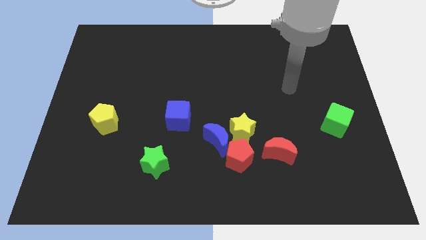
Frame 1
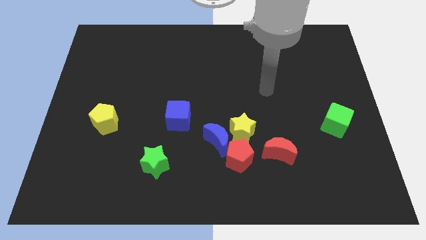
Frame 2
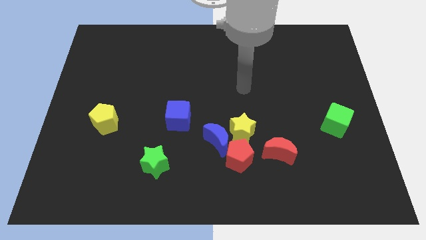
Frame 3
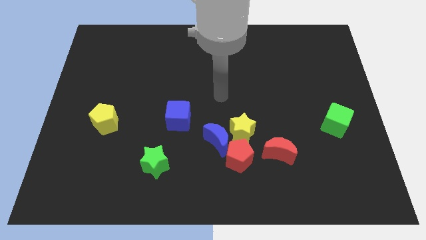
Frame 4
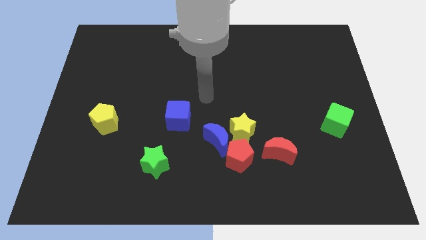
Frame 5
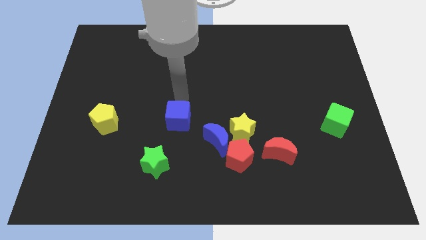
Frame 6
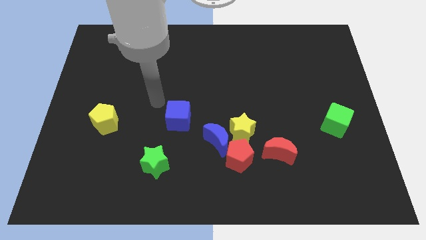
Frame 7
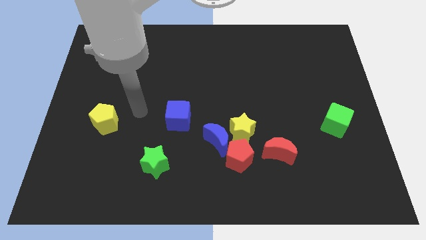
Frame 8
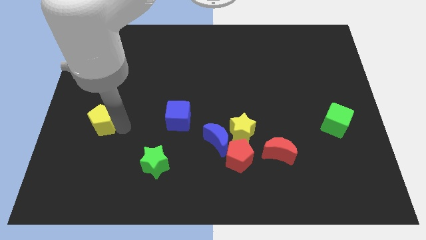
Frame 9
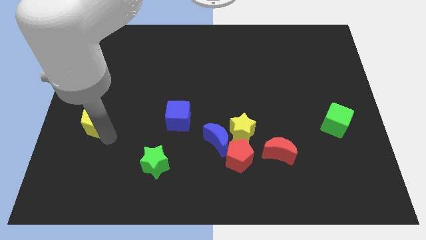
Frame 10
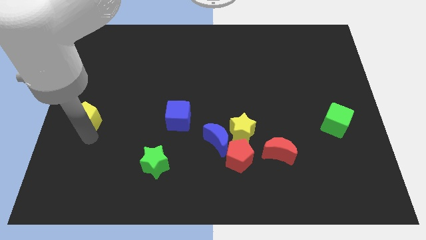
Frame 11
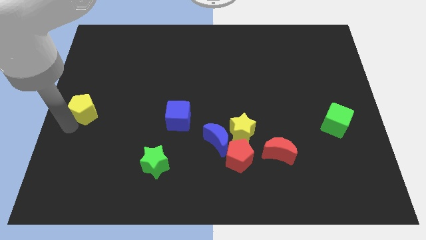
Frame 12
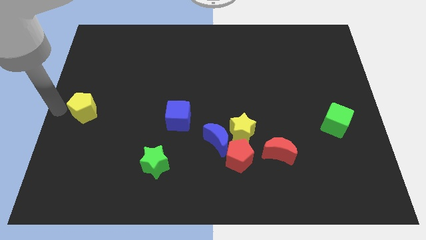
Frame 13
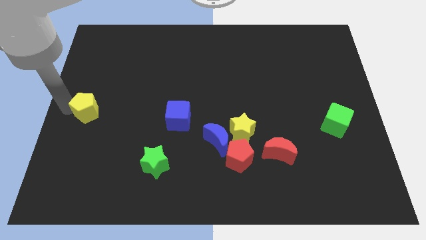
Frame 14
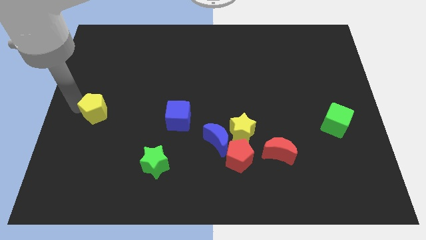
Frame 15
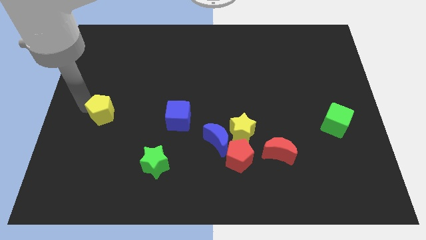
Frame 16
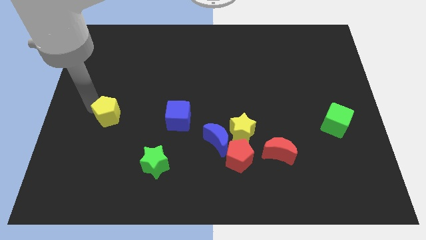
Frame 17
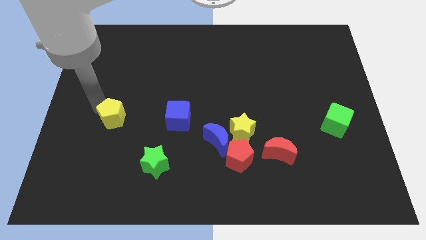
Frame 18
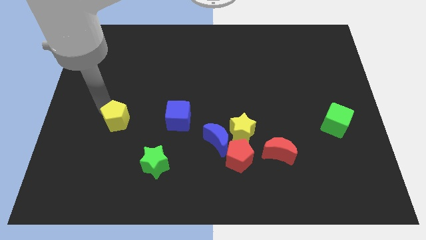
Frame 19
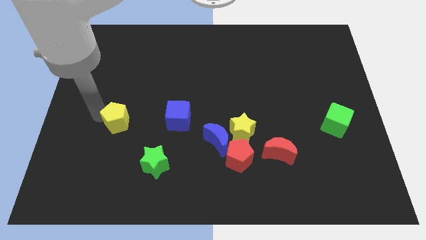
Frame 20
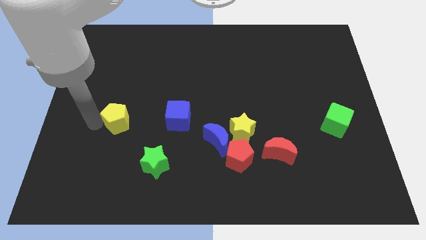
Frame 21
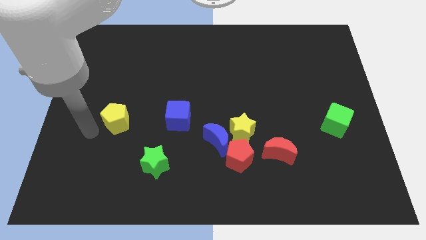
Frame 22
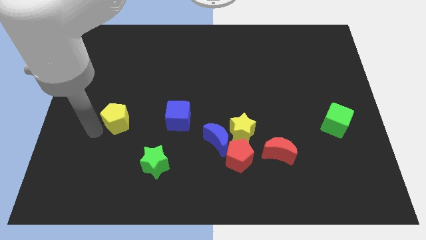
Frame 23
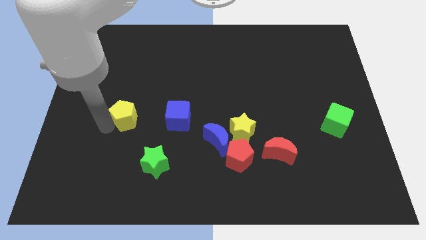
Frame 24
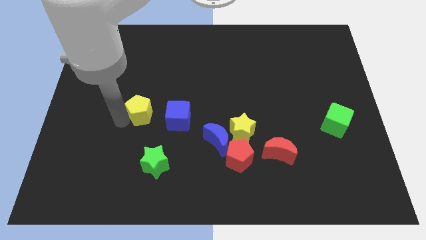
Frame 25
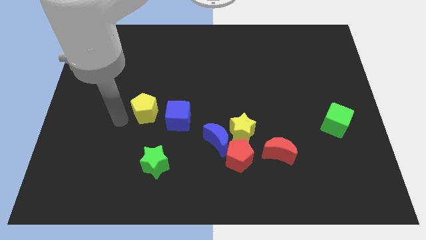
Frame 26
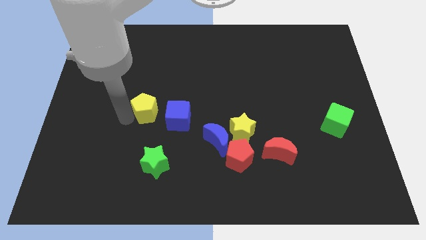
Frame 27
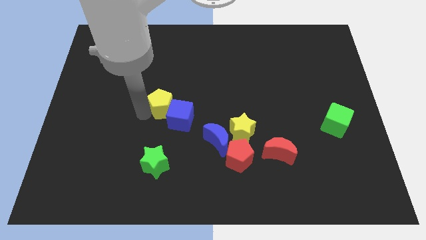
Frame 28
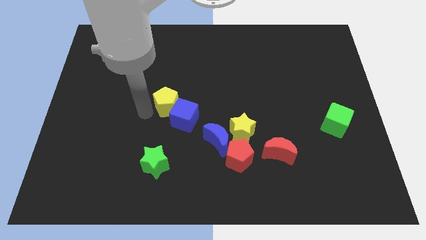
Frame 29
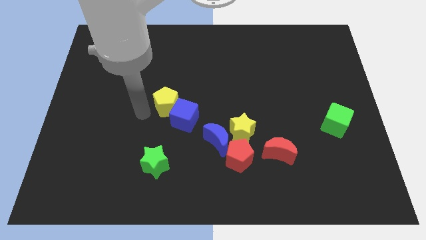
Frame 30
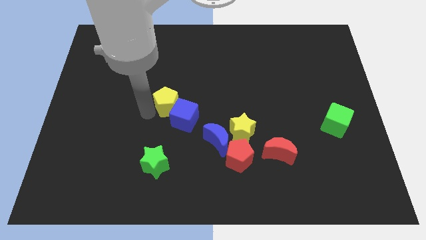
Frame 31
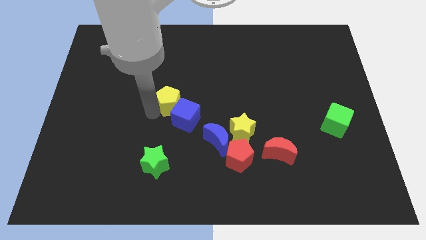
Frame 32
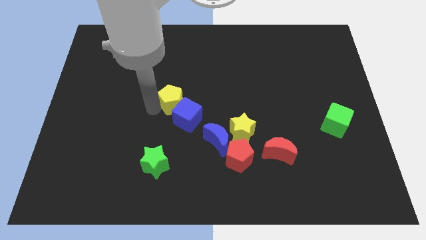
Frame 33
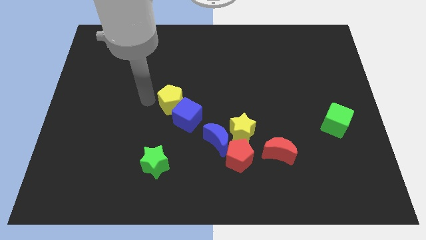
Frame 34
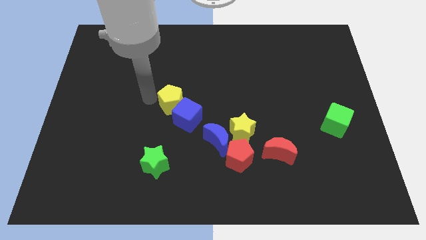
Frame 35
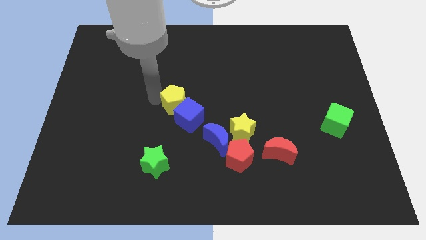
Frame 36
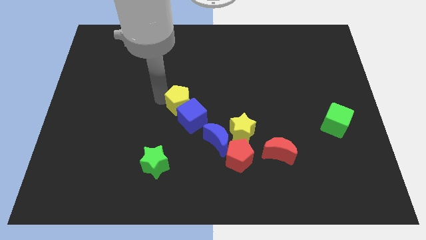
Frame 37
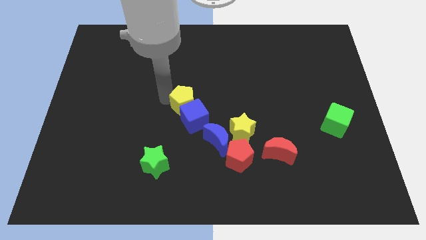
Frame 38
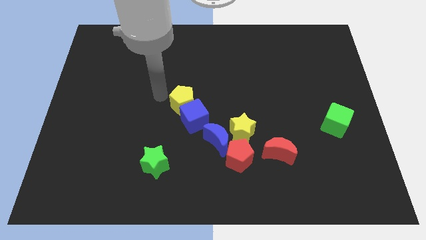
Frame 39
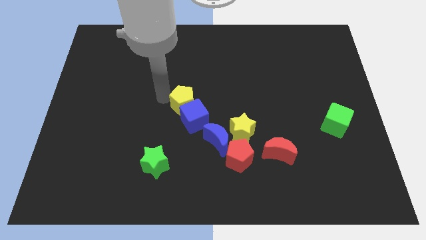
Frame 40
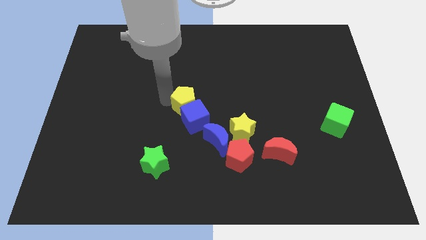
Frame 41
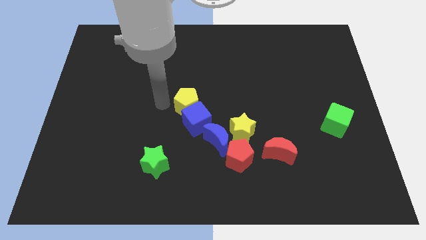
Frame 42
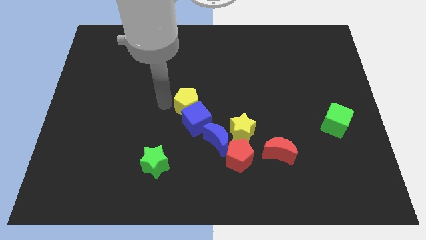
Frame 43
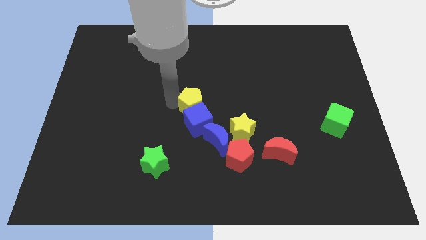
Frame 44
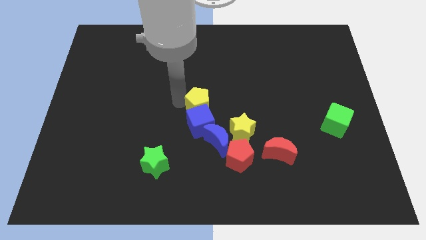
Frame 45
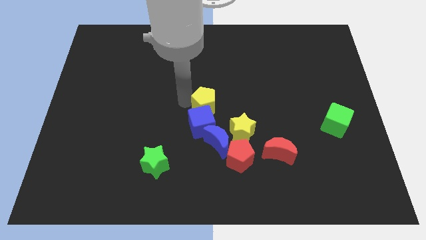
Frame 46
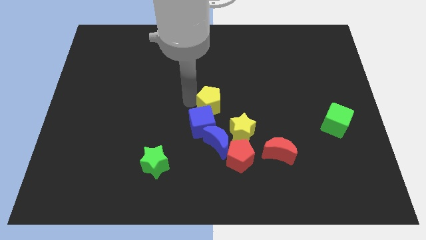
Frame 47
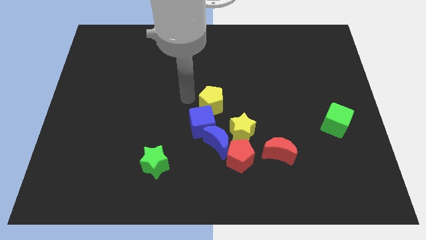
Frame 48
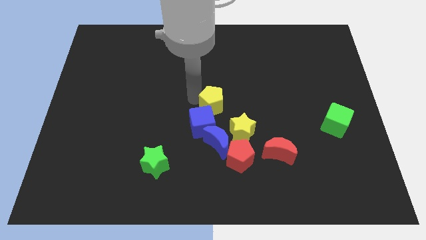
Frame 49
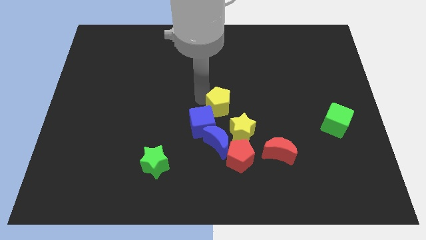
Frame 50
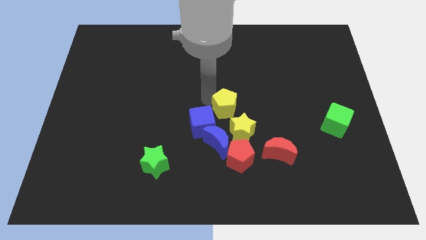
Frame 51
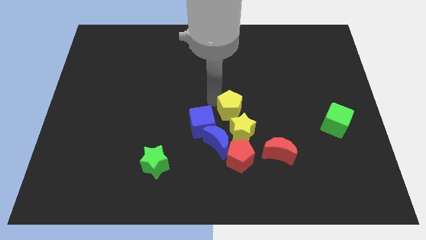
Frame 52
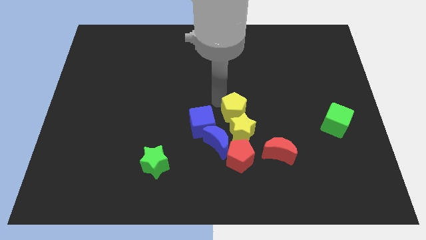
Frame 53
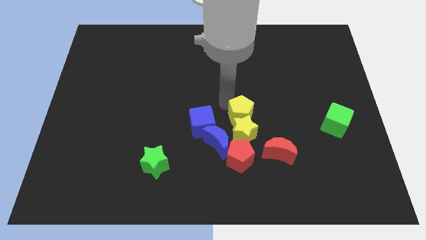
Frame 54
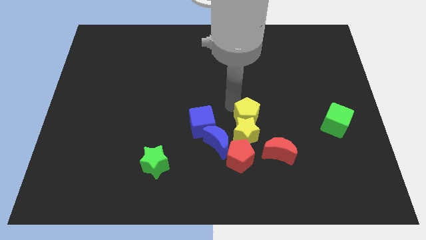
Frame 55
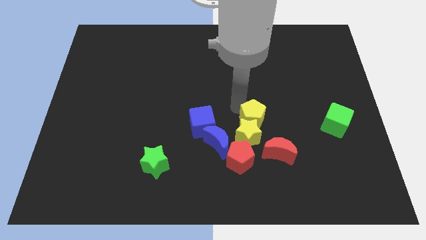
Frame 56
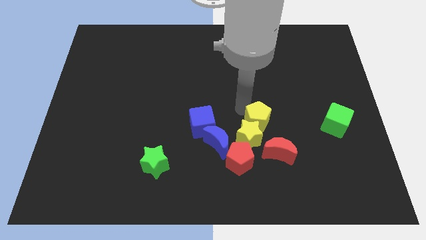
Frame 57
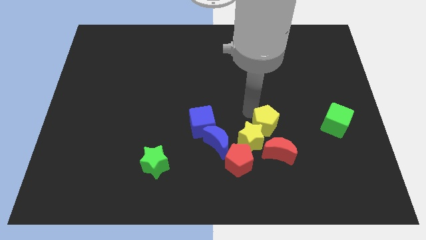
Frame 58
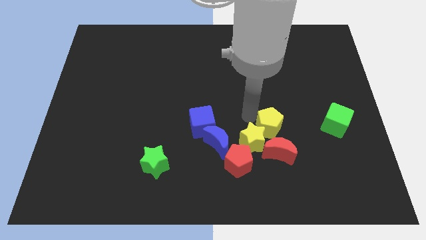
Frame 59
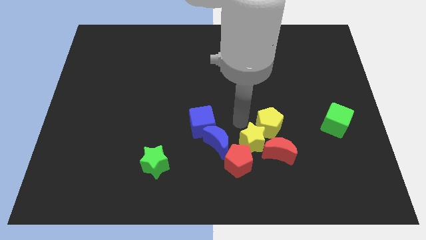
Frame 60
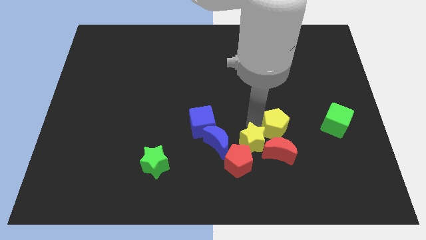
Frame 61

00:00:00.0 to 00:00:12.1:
put the yellow pentagon to the top right of the red moon

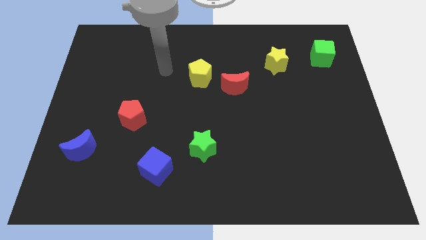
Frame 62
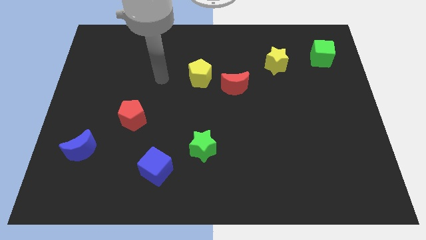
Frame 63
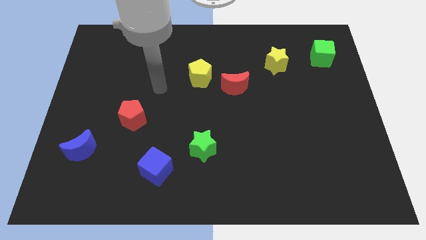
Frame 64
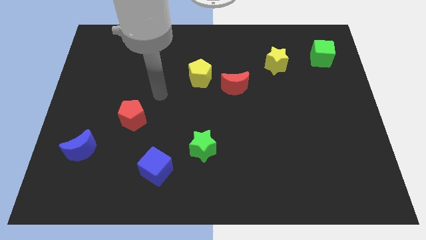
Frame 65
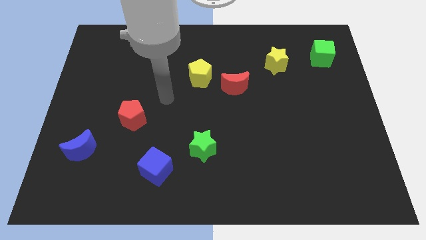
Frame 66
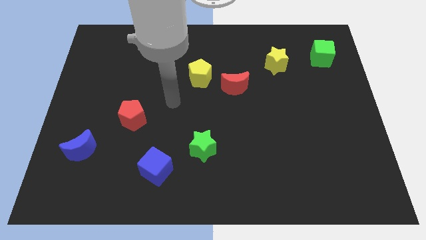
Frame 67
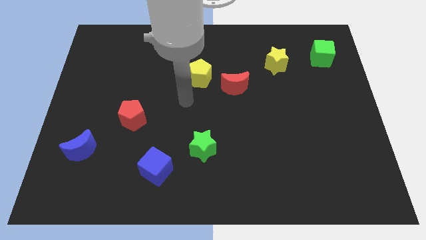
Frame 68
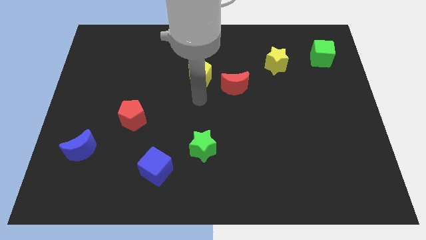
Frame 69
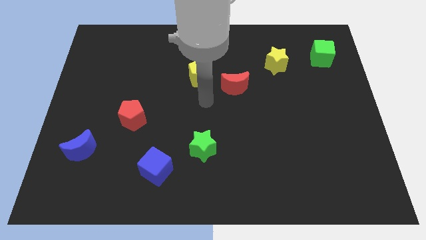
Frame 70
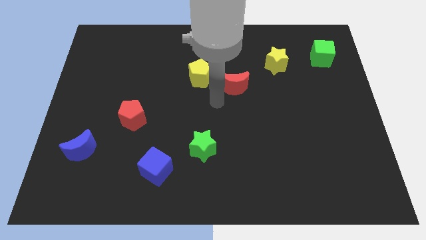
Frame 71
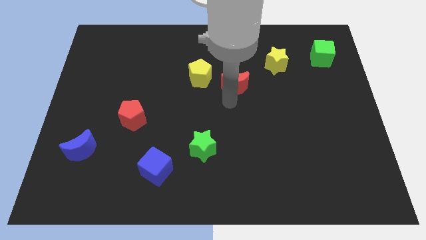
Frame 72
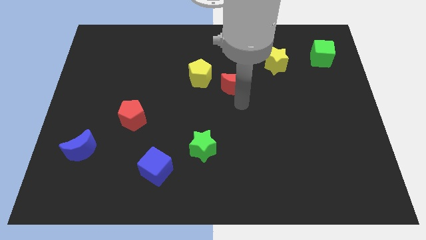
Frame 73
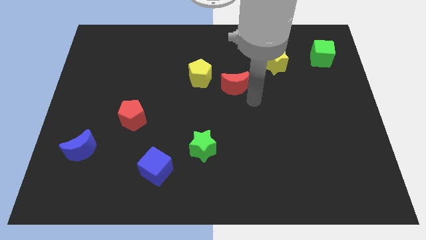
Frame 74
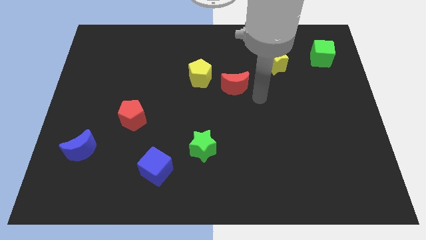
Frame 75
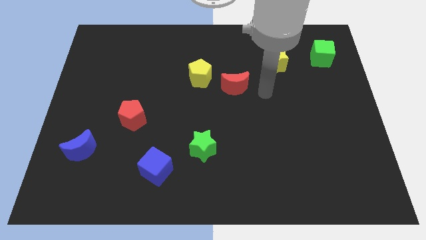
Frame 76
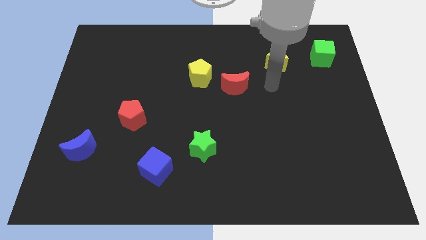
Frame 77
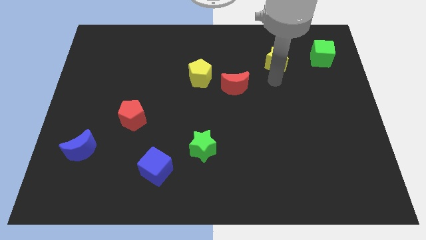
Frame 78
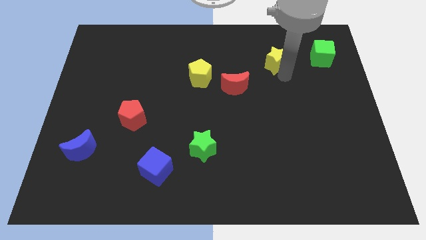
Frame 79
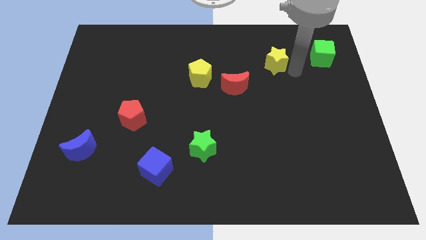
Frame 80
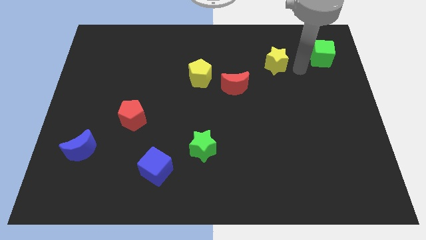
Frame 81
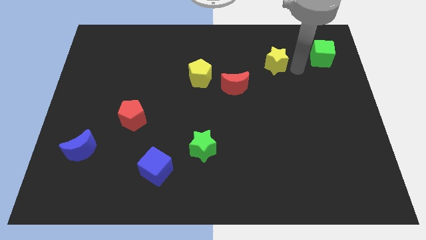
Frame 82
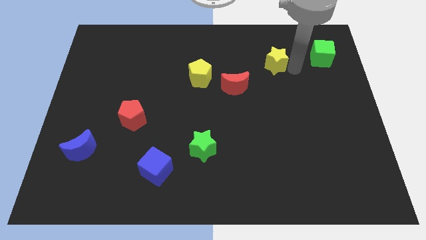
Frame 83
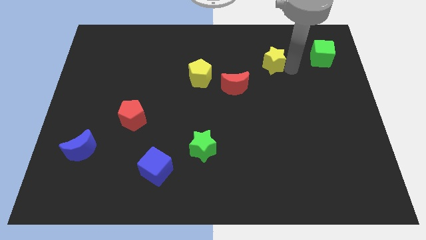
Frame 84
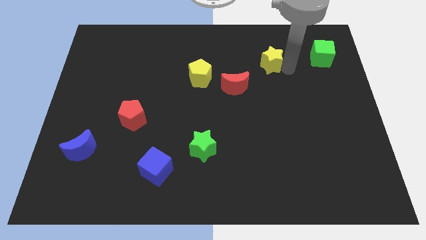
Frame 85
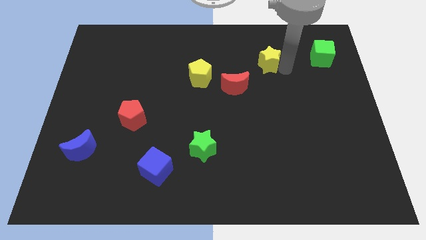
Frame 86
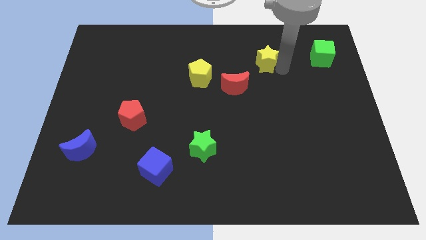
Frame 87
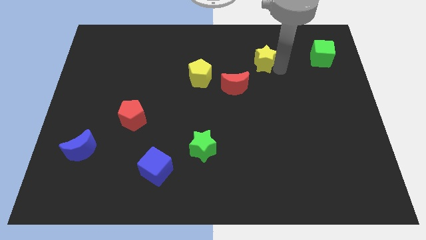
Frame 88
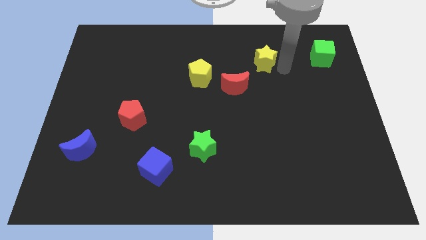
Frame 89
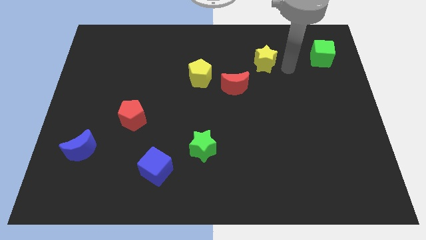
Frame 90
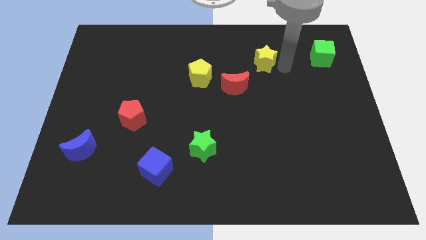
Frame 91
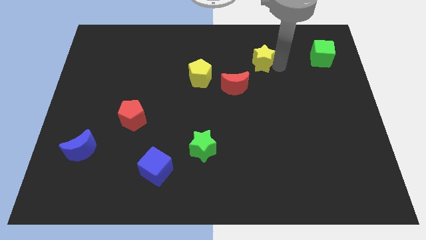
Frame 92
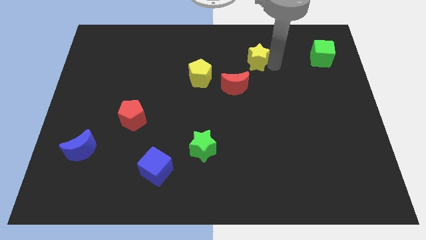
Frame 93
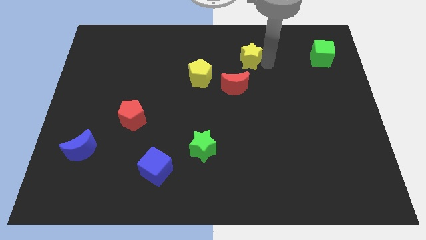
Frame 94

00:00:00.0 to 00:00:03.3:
push the yellow star above the red moon
